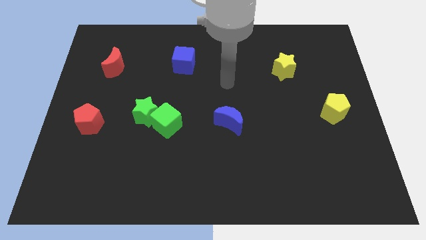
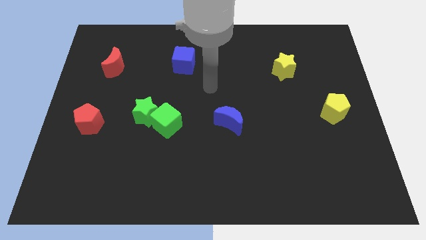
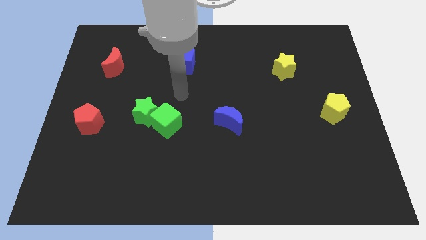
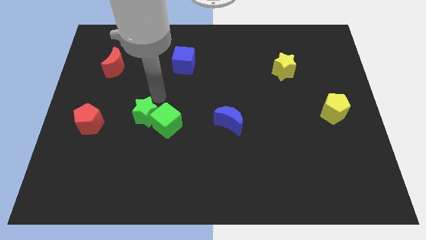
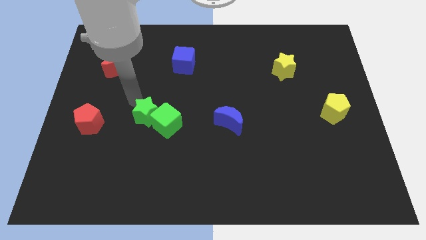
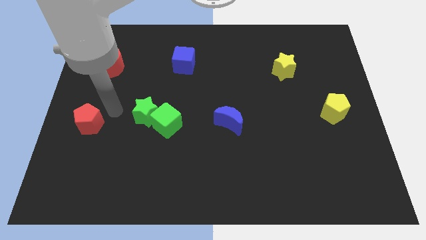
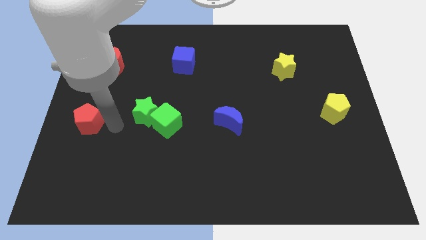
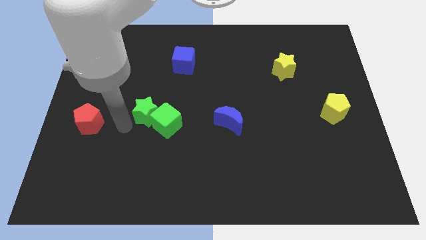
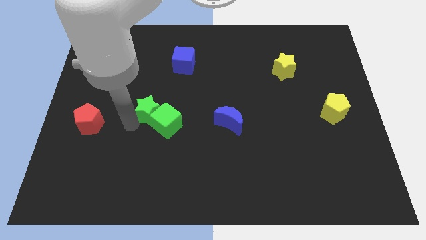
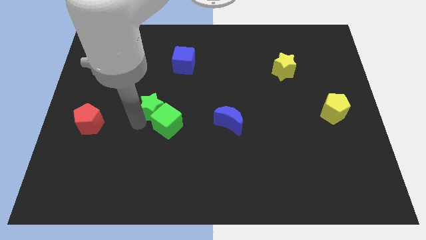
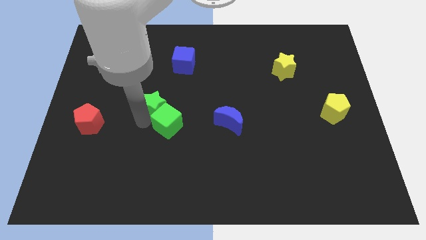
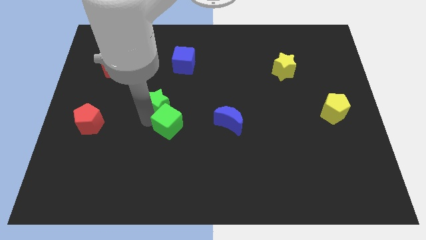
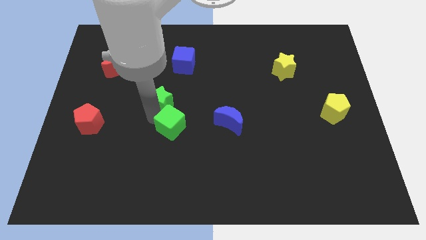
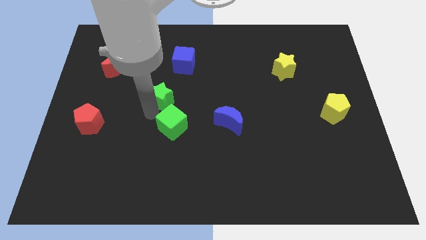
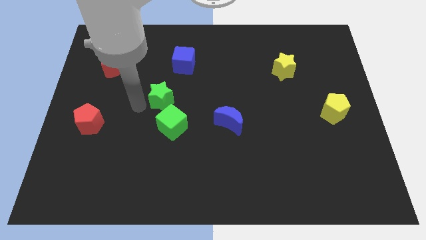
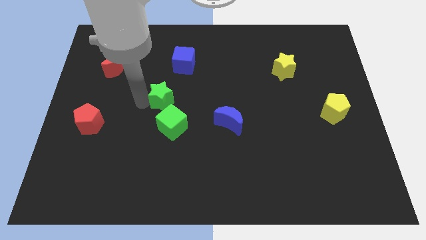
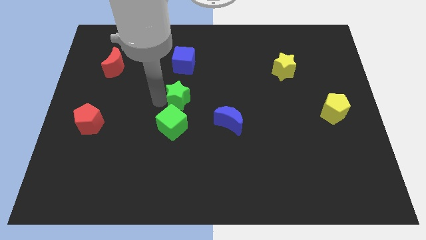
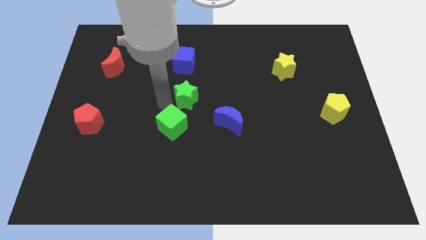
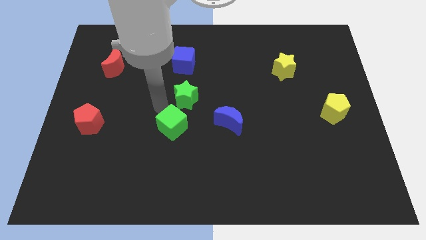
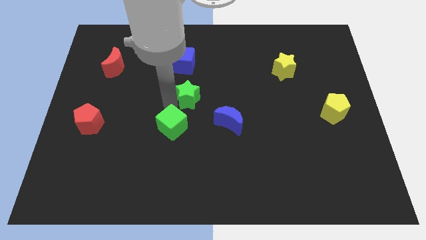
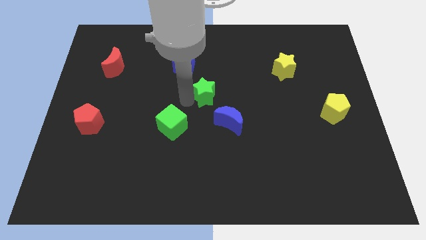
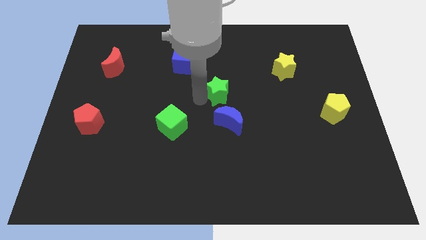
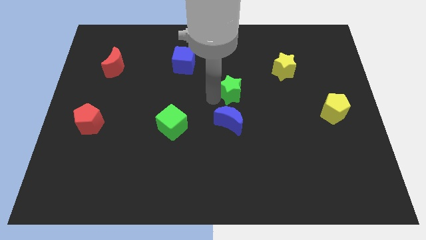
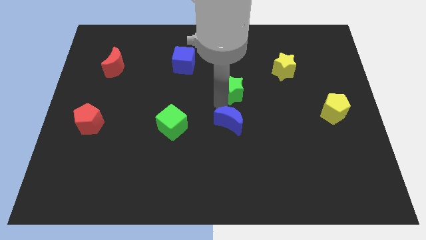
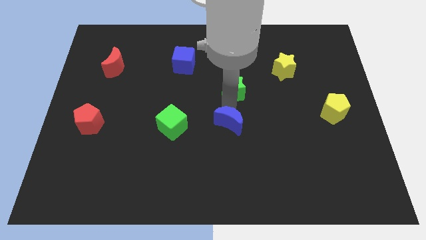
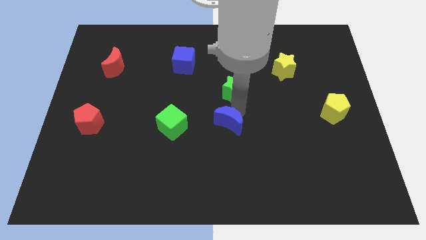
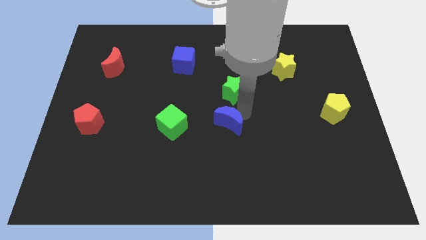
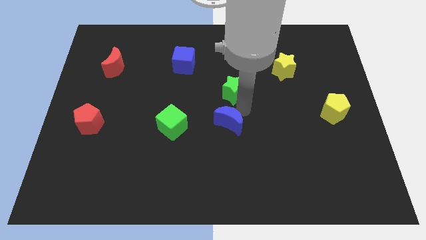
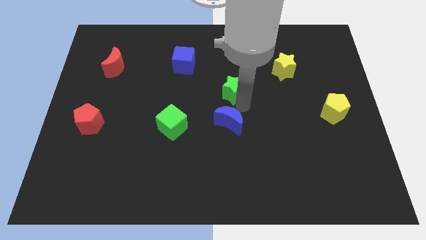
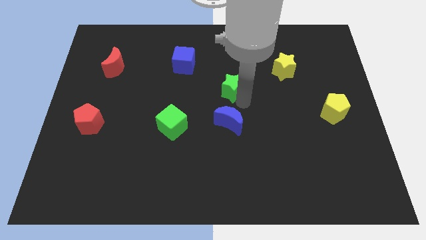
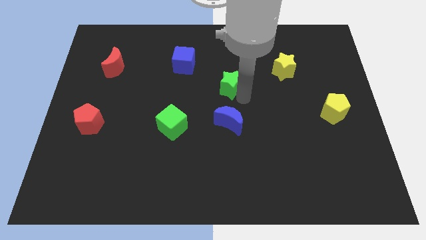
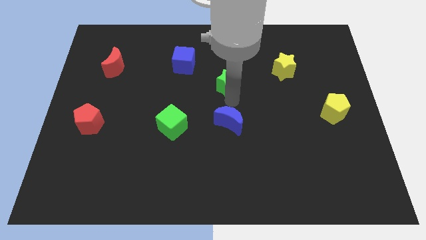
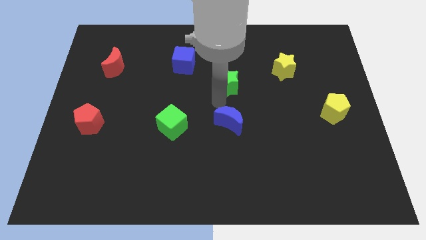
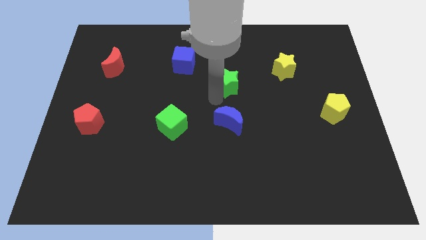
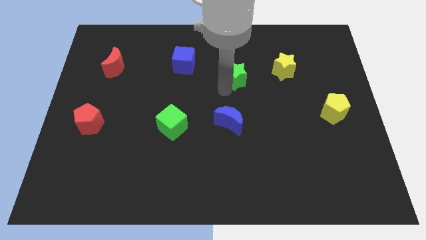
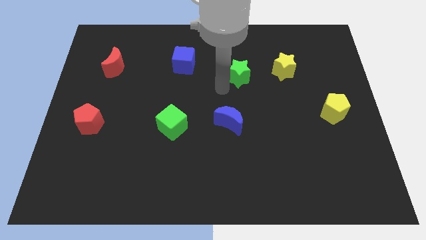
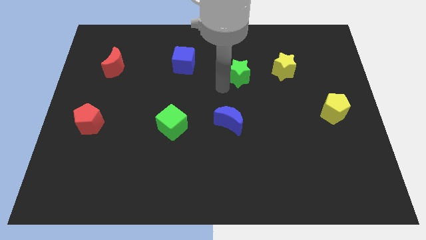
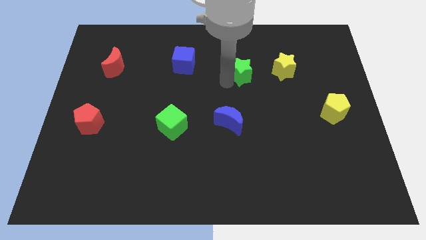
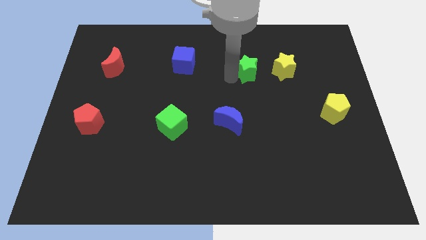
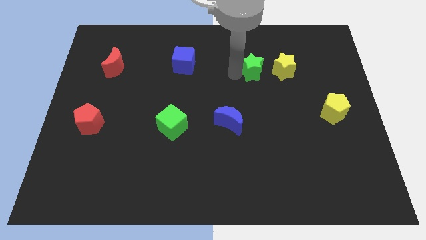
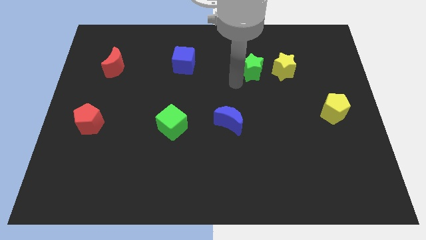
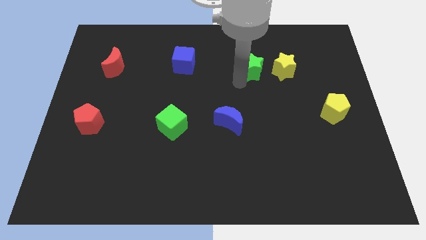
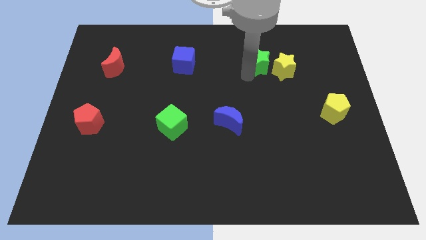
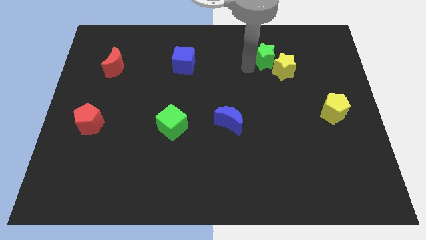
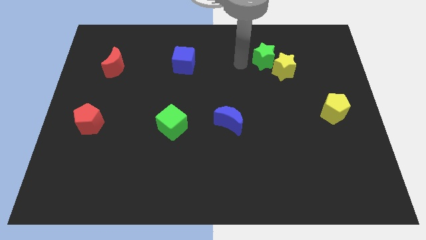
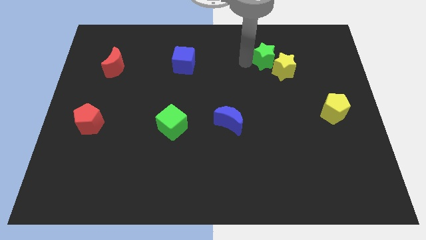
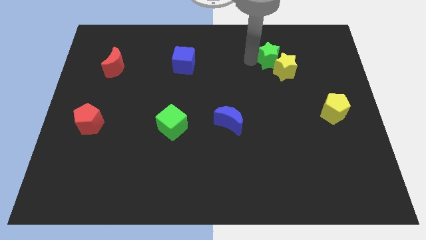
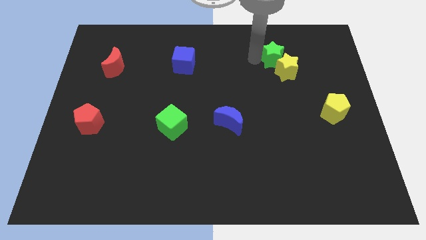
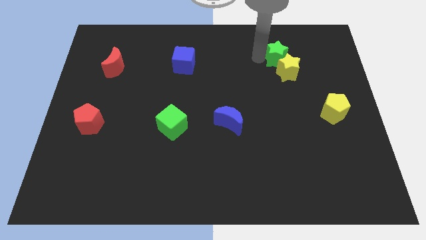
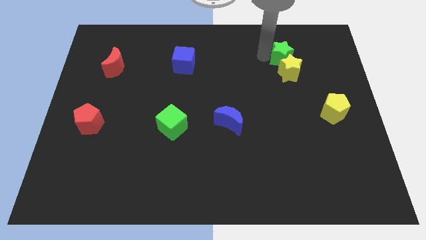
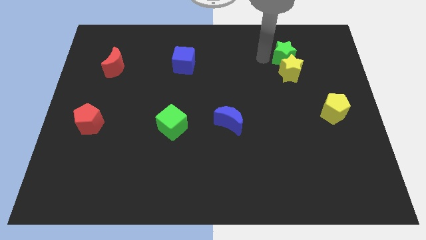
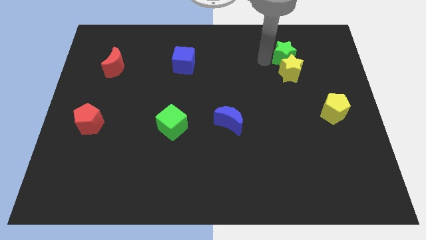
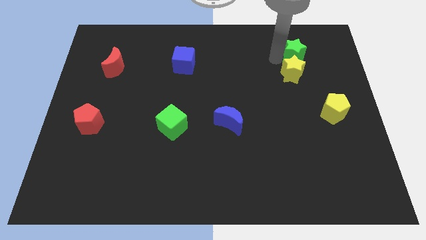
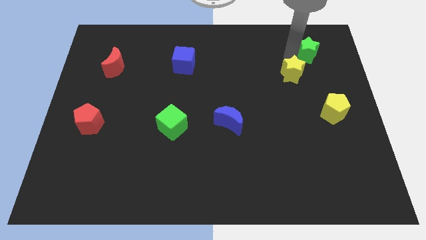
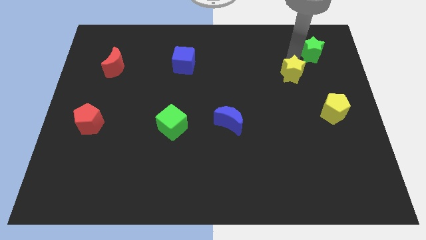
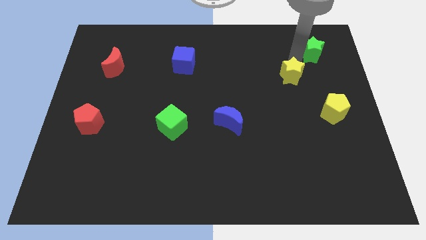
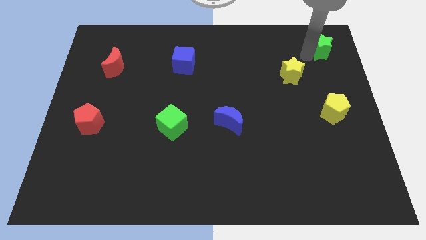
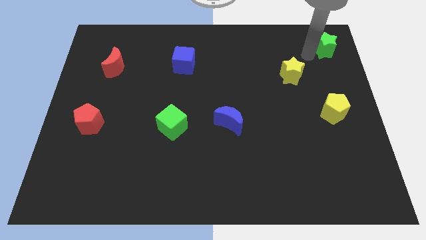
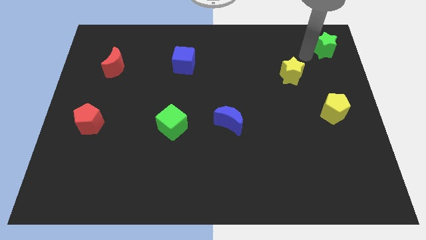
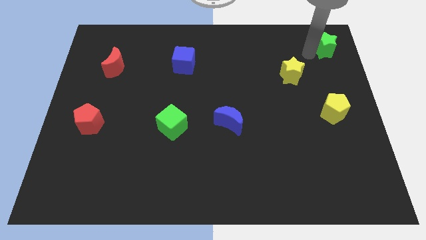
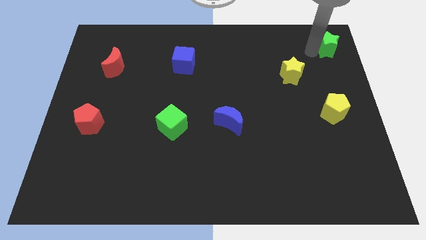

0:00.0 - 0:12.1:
move the green star to the top right of the board
